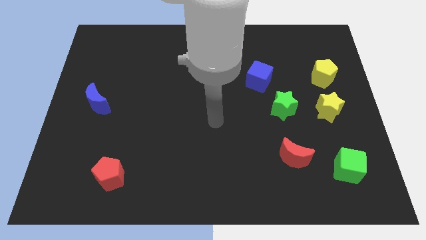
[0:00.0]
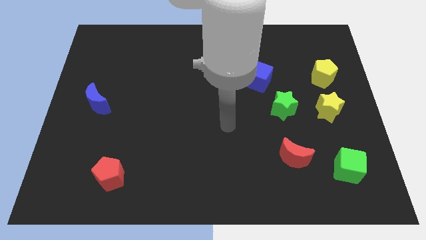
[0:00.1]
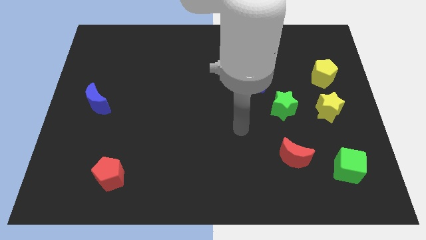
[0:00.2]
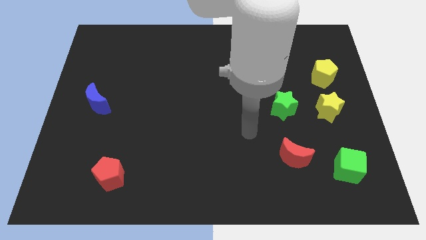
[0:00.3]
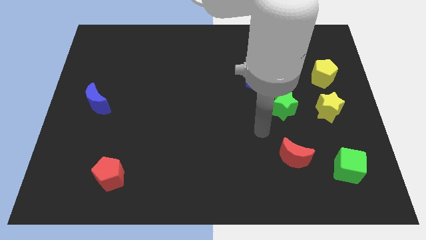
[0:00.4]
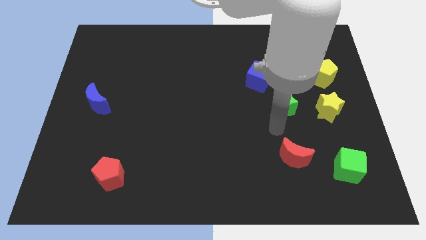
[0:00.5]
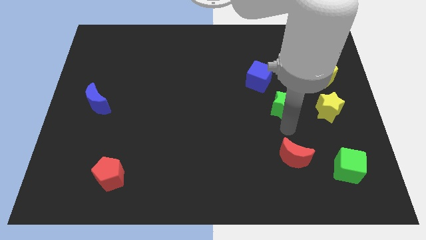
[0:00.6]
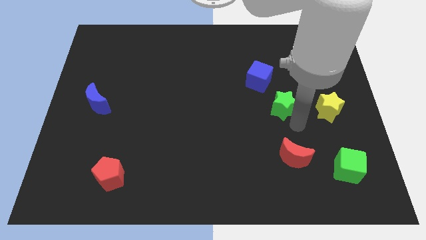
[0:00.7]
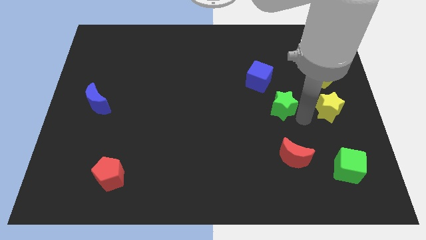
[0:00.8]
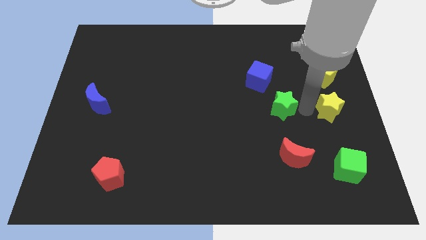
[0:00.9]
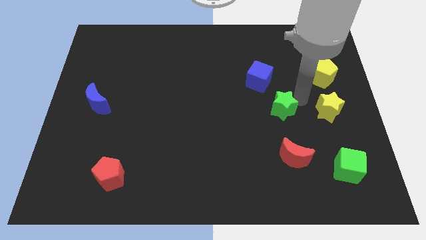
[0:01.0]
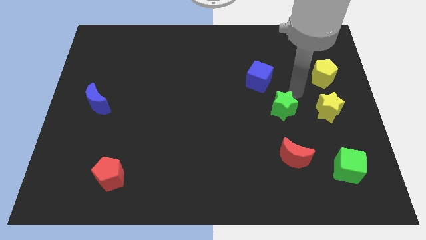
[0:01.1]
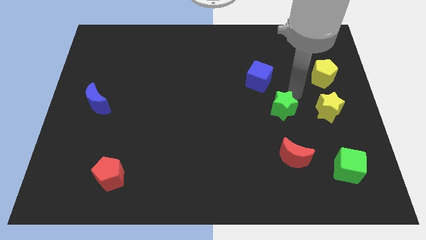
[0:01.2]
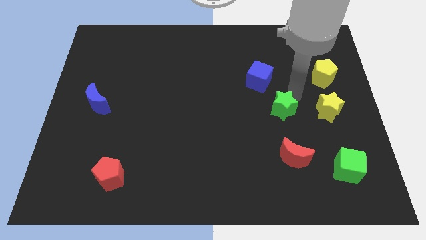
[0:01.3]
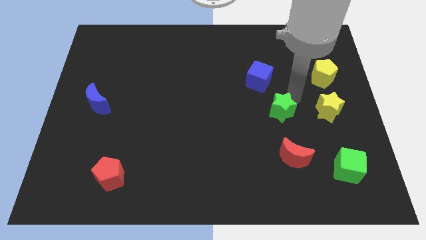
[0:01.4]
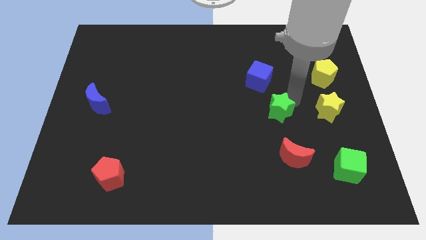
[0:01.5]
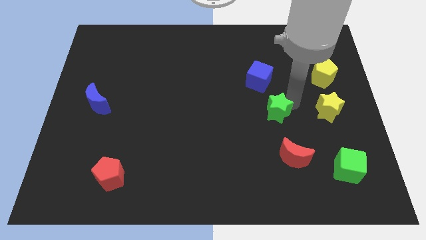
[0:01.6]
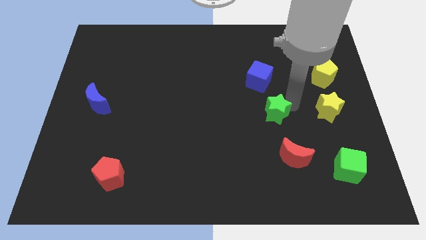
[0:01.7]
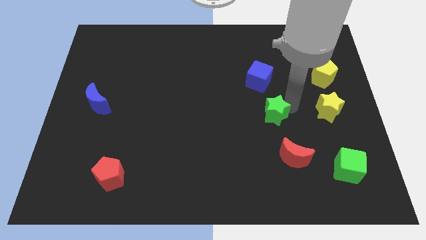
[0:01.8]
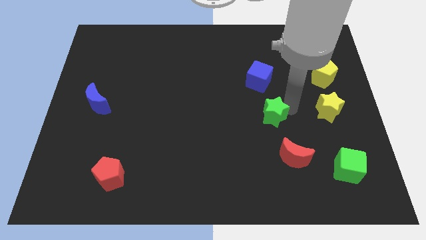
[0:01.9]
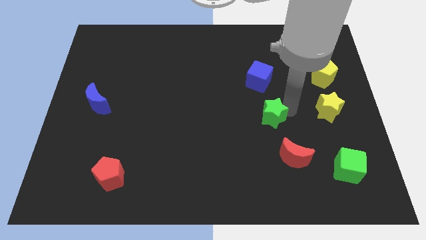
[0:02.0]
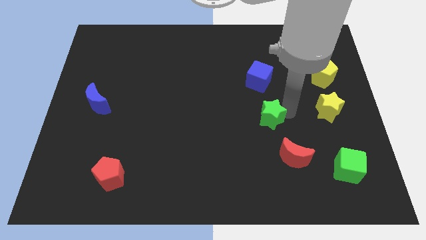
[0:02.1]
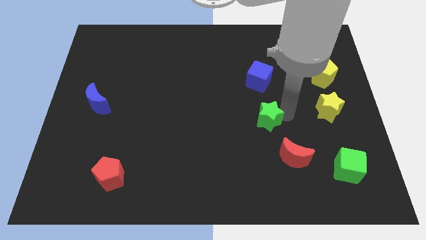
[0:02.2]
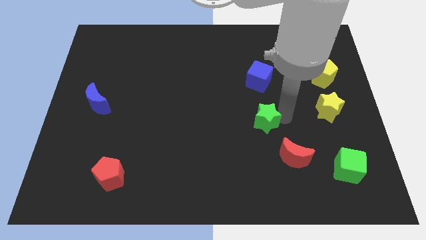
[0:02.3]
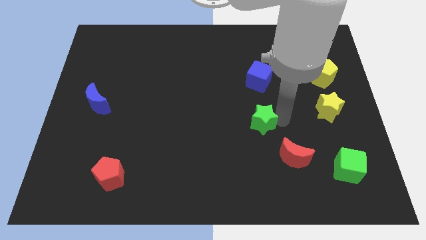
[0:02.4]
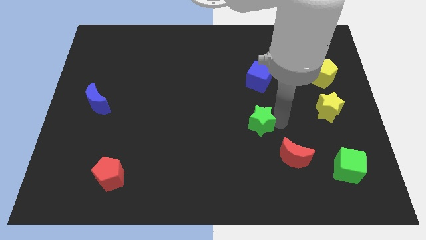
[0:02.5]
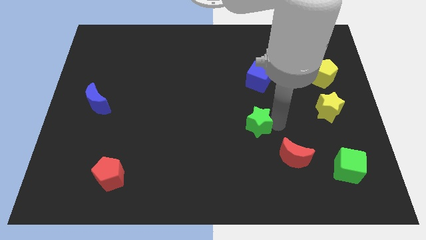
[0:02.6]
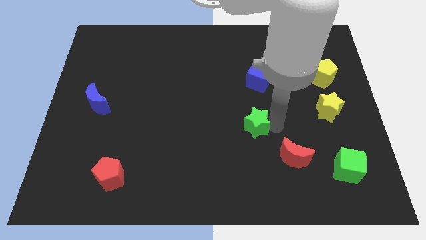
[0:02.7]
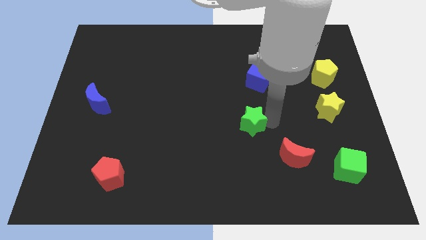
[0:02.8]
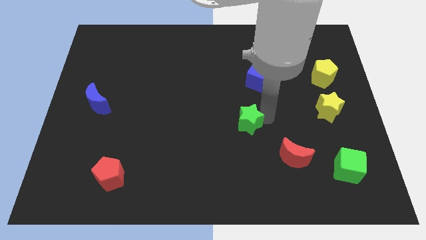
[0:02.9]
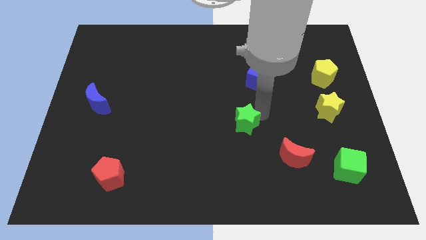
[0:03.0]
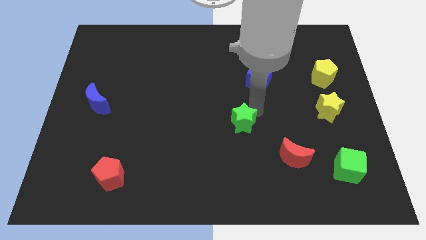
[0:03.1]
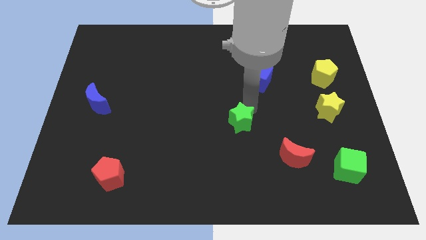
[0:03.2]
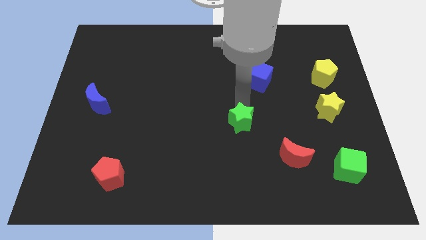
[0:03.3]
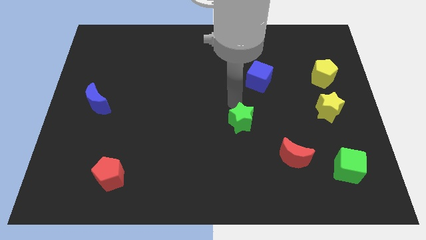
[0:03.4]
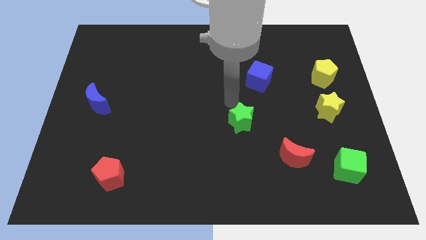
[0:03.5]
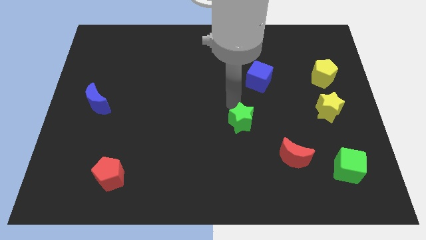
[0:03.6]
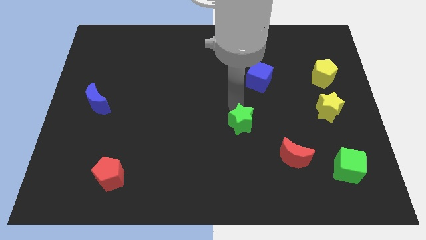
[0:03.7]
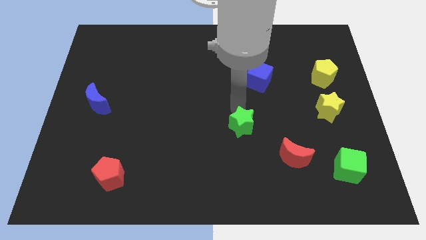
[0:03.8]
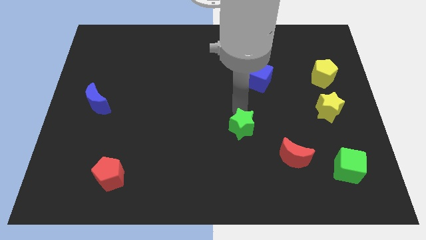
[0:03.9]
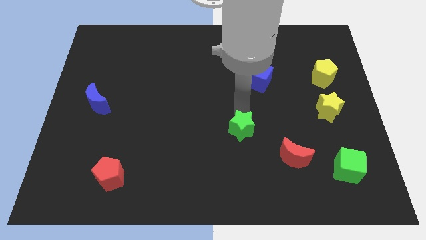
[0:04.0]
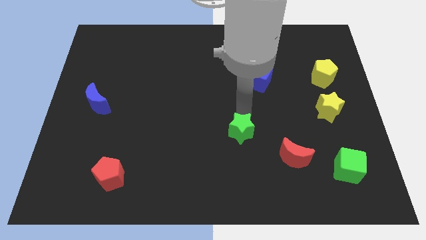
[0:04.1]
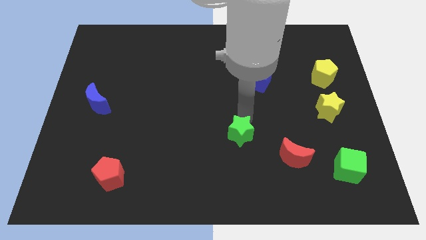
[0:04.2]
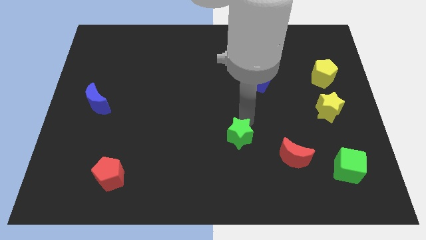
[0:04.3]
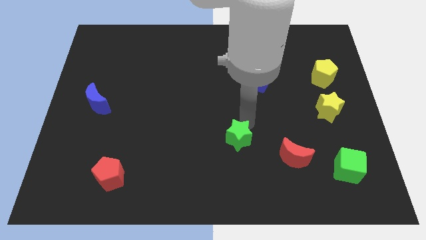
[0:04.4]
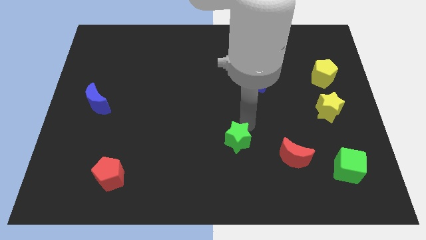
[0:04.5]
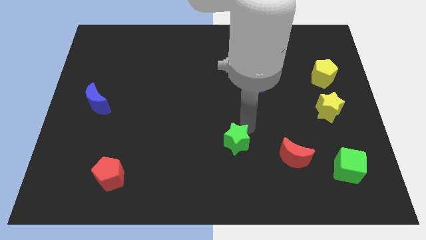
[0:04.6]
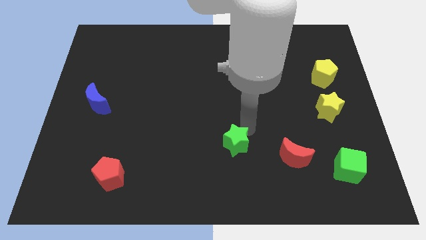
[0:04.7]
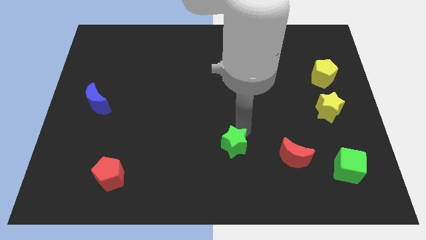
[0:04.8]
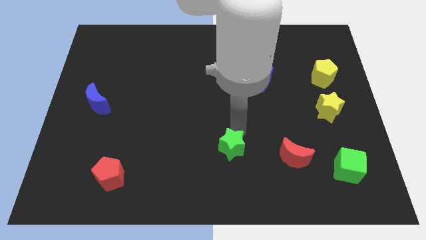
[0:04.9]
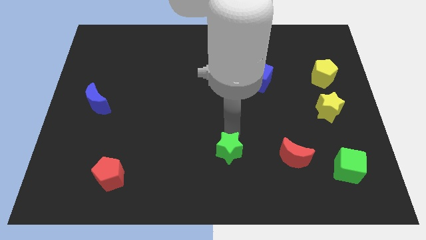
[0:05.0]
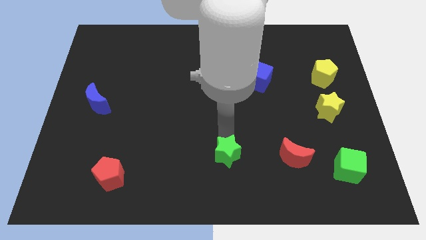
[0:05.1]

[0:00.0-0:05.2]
move the green star to the bottom

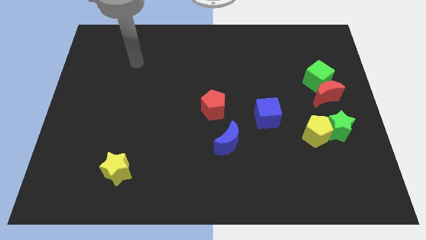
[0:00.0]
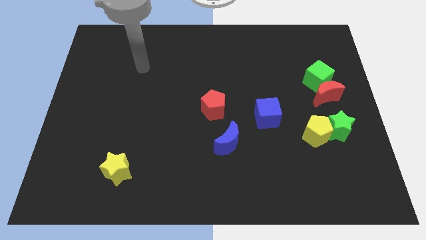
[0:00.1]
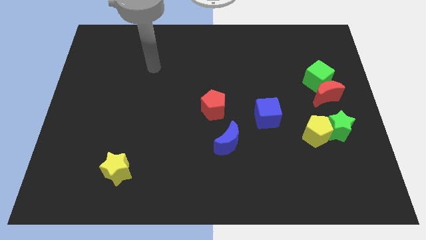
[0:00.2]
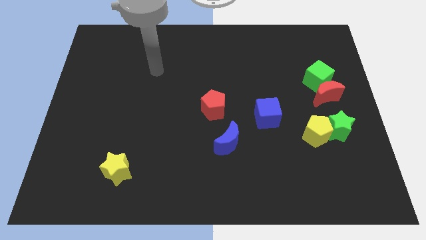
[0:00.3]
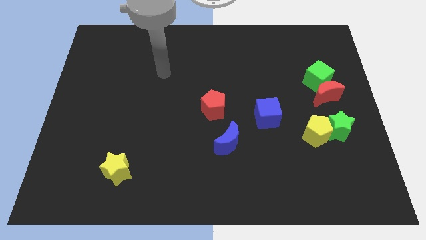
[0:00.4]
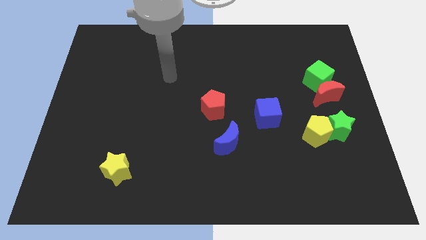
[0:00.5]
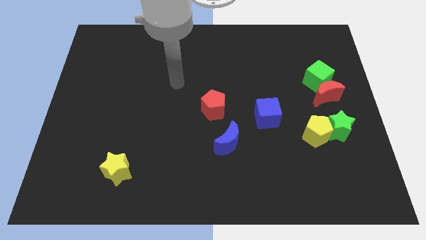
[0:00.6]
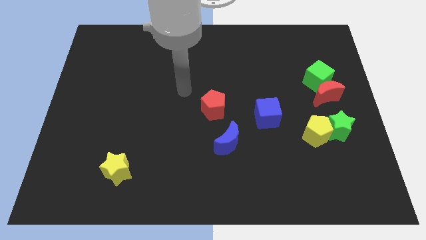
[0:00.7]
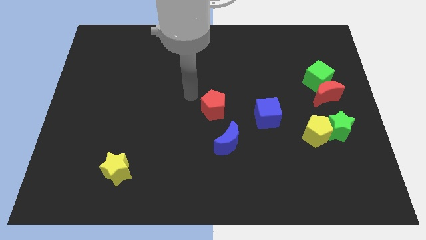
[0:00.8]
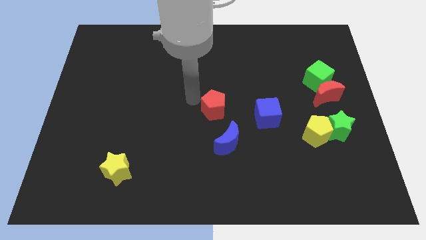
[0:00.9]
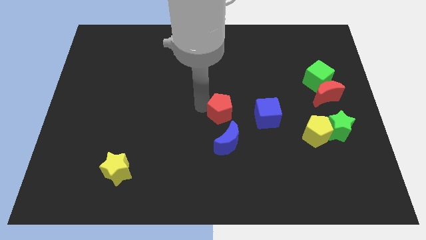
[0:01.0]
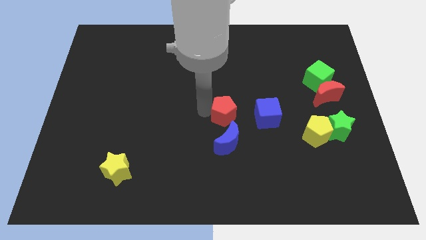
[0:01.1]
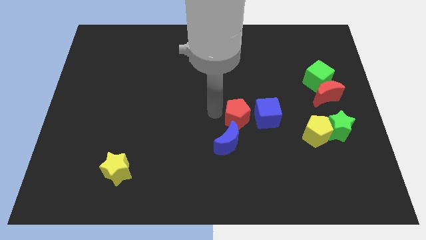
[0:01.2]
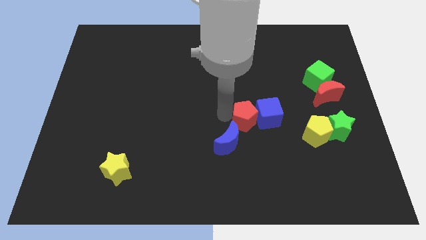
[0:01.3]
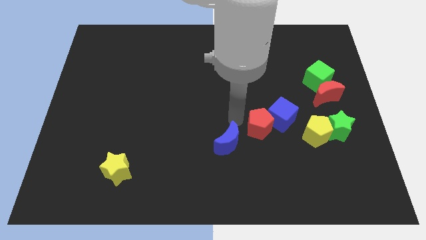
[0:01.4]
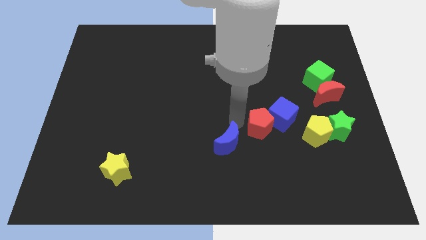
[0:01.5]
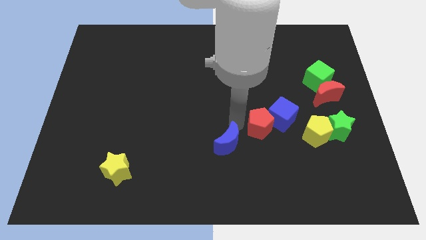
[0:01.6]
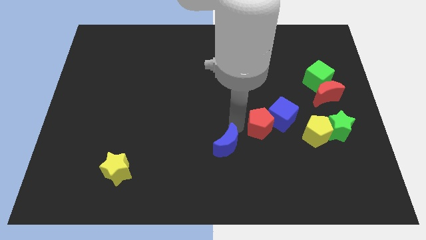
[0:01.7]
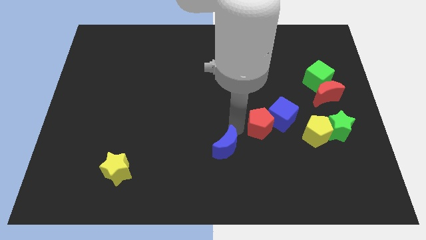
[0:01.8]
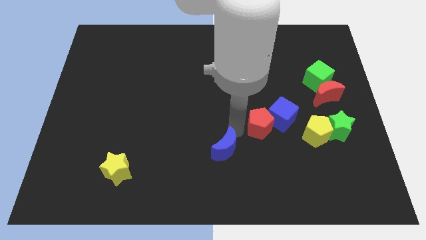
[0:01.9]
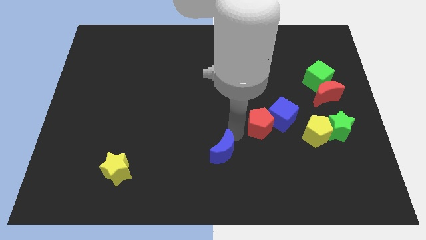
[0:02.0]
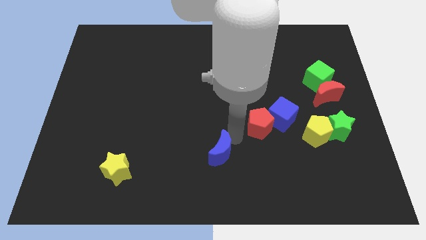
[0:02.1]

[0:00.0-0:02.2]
put the blue moon to the bottom side
